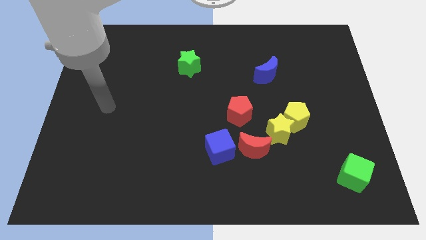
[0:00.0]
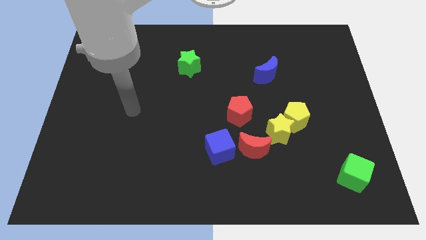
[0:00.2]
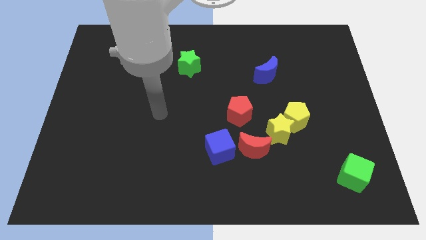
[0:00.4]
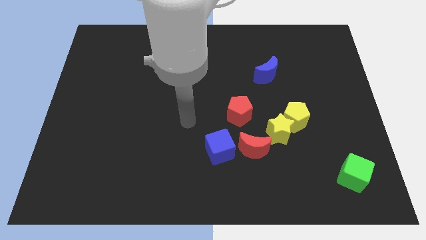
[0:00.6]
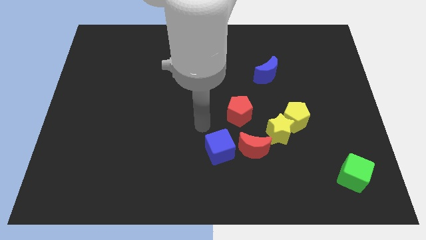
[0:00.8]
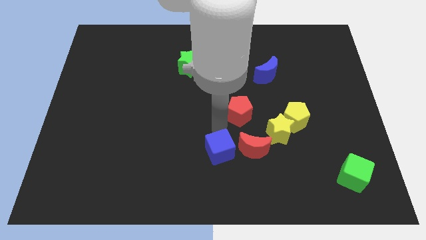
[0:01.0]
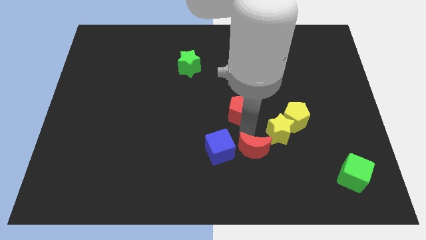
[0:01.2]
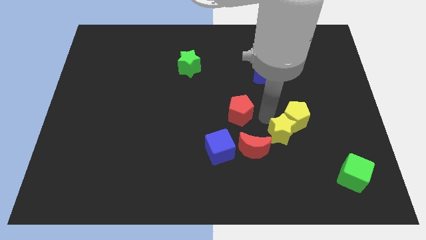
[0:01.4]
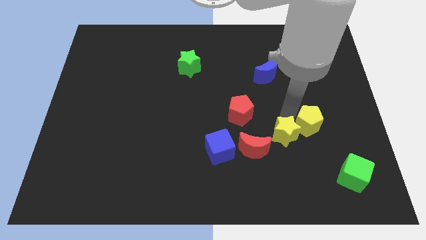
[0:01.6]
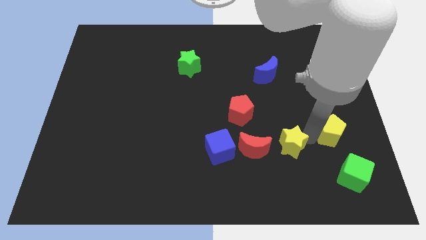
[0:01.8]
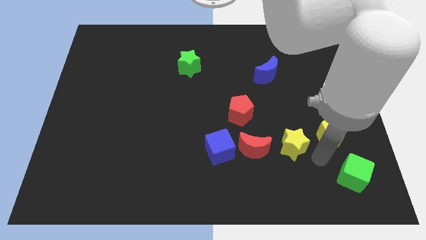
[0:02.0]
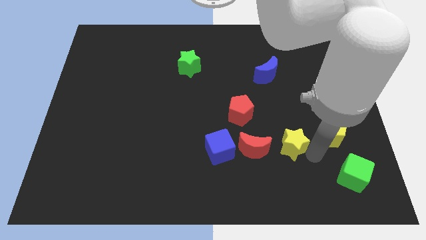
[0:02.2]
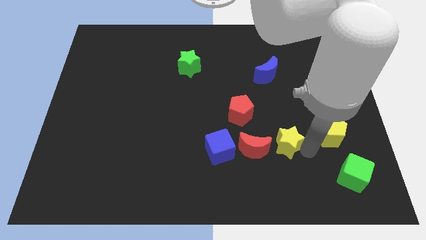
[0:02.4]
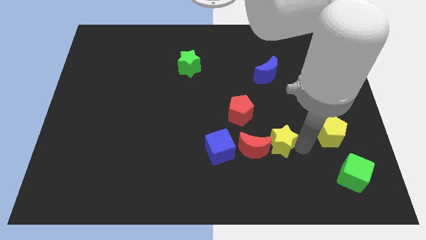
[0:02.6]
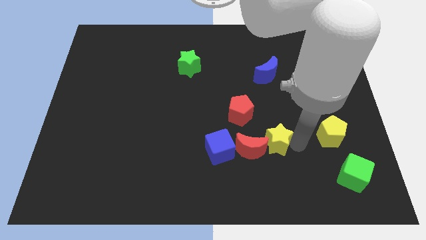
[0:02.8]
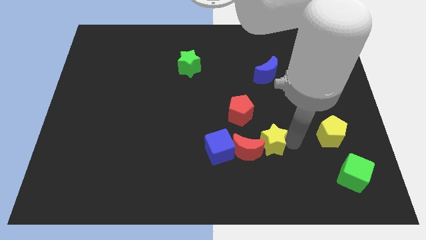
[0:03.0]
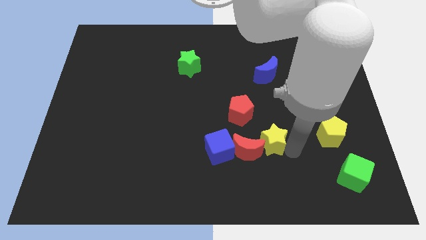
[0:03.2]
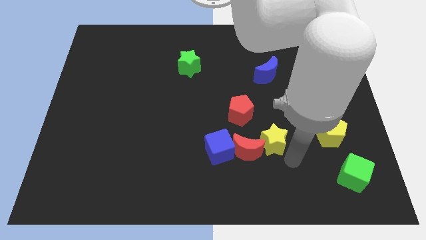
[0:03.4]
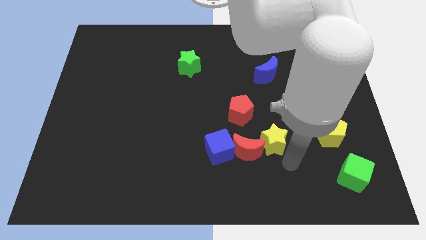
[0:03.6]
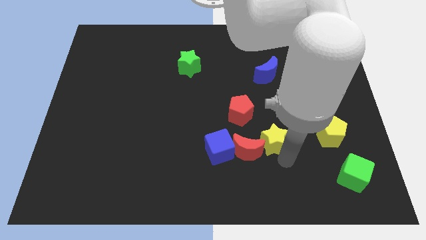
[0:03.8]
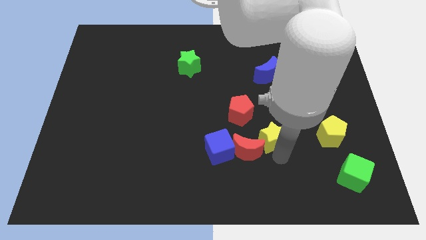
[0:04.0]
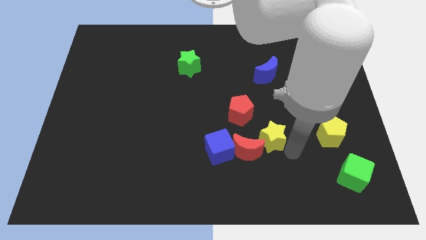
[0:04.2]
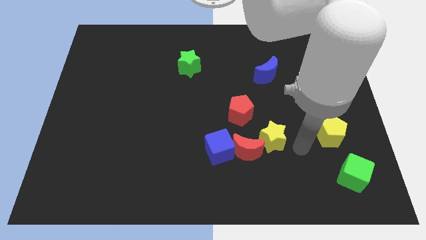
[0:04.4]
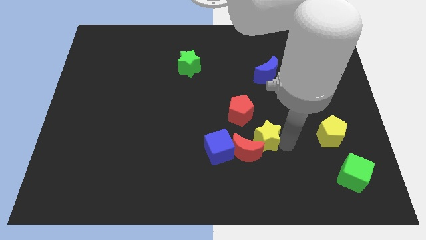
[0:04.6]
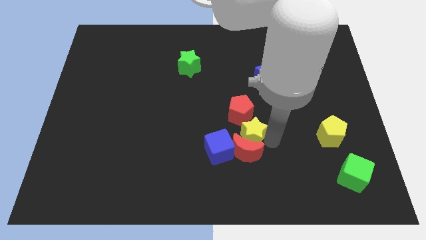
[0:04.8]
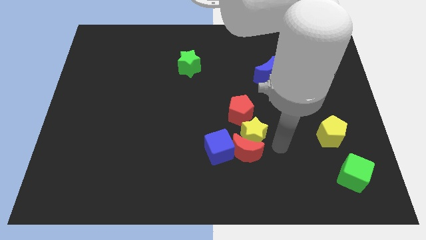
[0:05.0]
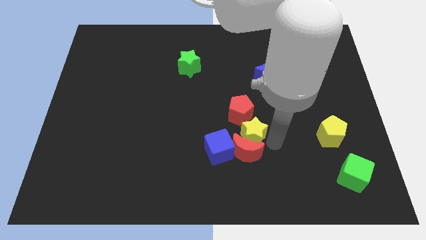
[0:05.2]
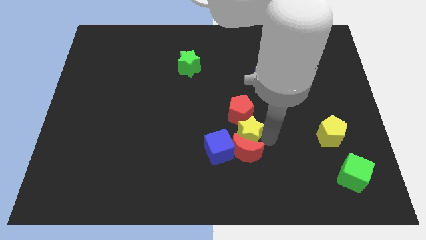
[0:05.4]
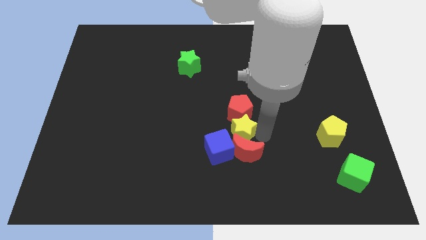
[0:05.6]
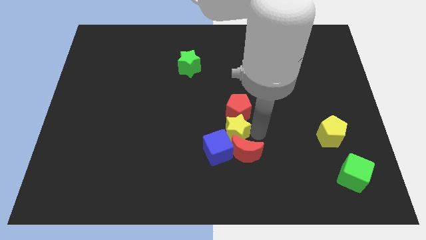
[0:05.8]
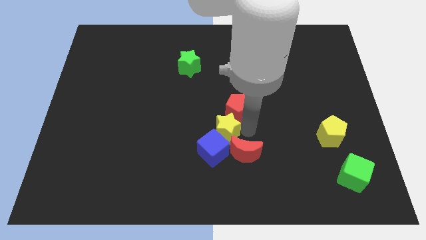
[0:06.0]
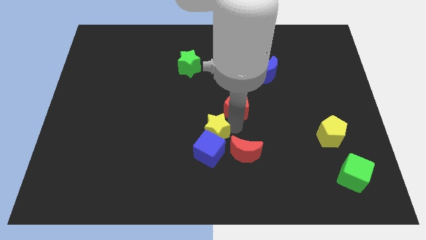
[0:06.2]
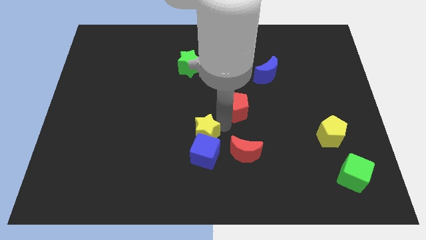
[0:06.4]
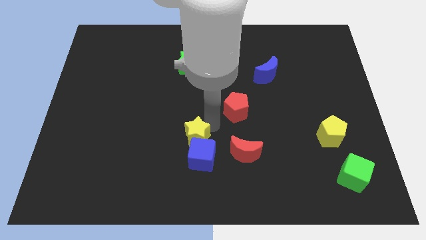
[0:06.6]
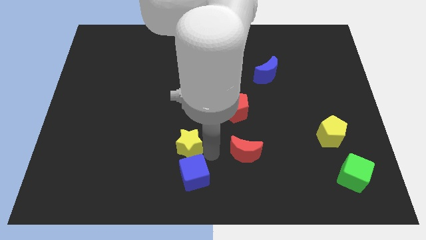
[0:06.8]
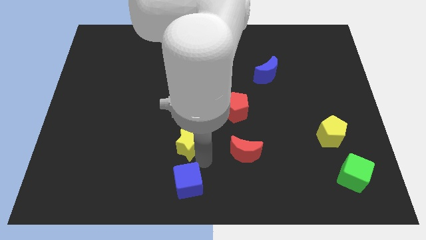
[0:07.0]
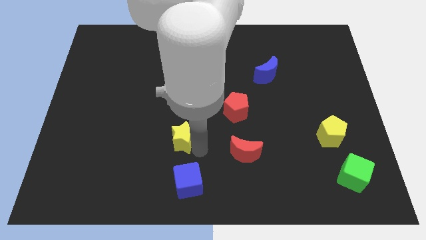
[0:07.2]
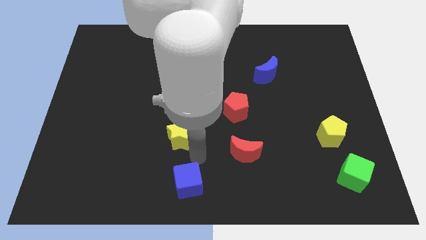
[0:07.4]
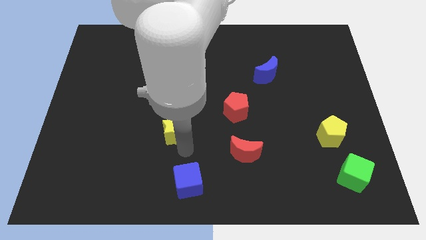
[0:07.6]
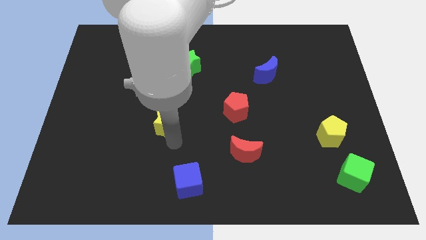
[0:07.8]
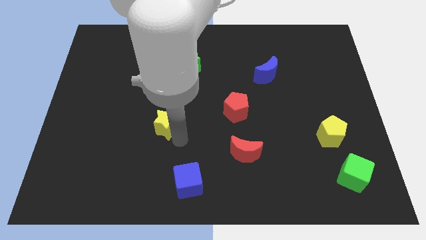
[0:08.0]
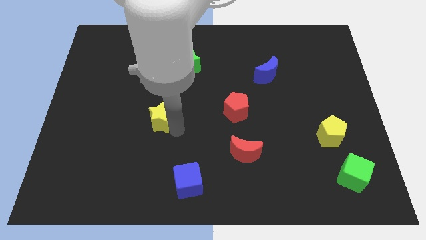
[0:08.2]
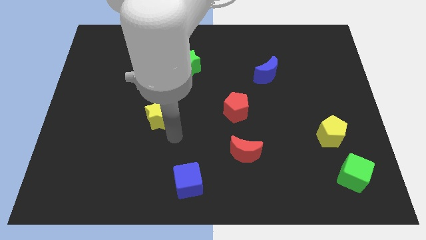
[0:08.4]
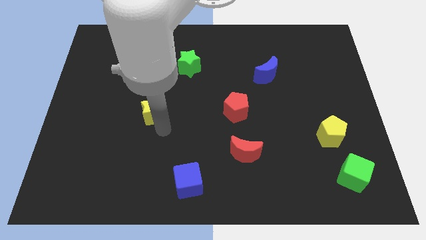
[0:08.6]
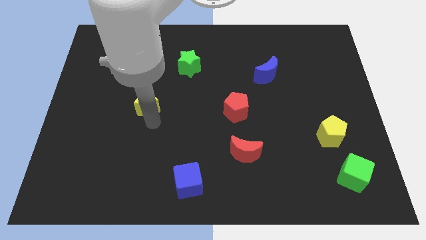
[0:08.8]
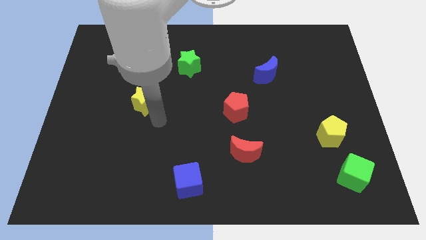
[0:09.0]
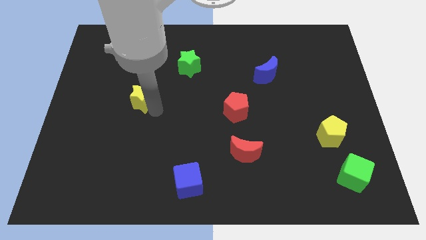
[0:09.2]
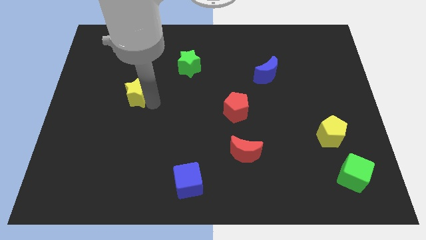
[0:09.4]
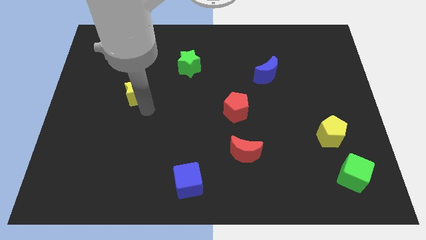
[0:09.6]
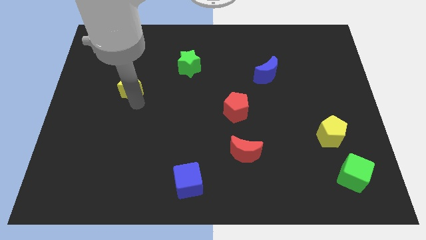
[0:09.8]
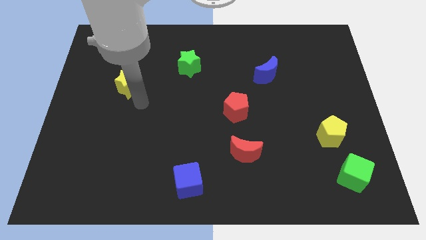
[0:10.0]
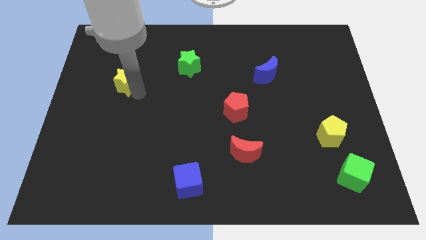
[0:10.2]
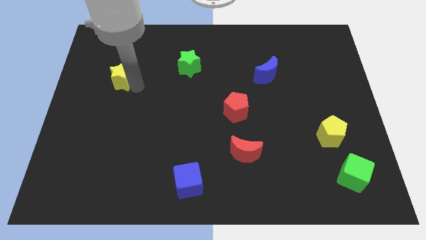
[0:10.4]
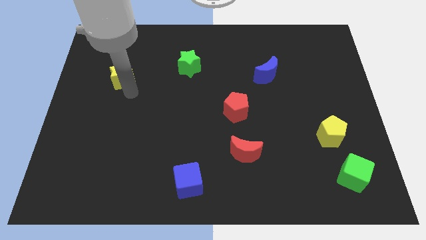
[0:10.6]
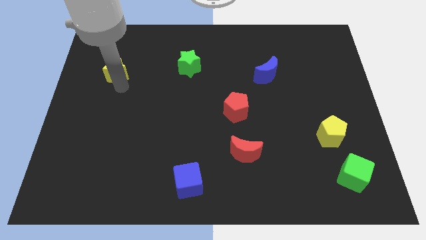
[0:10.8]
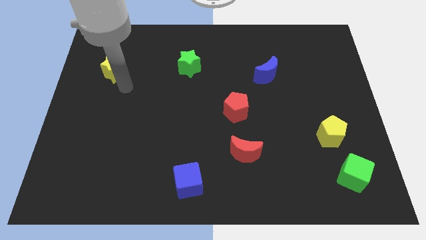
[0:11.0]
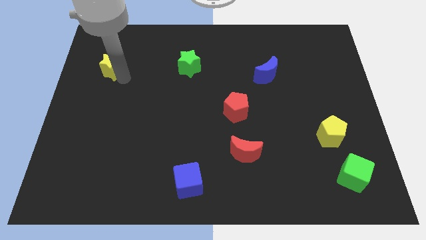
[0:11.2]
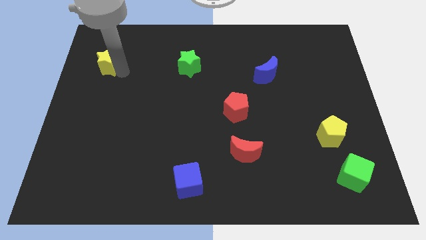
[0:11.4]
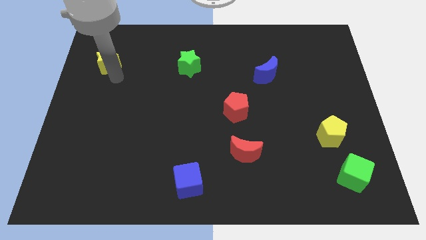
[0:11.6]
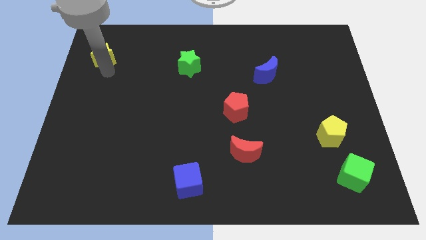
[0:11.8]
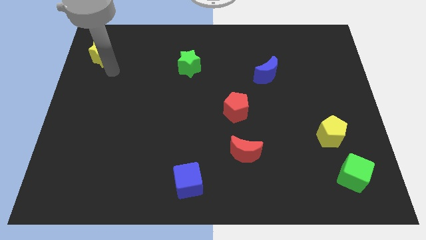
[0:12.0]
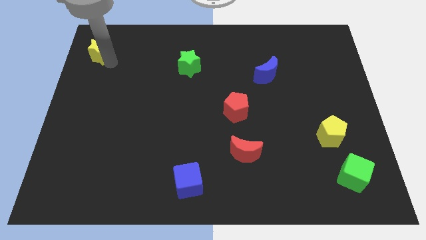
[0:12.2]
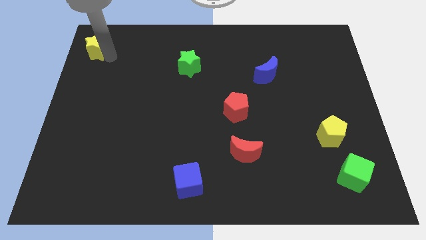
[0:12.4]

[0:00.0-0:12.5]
put the yellow star to the top left
